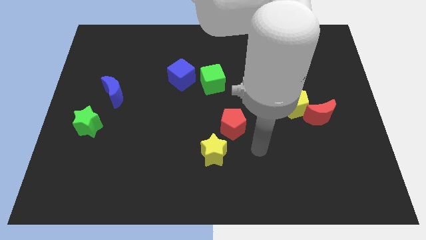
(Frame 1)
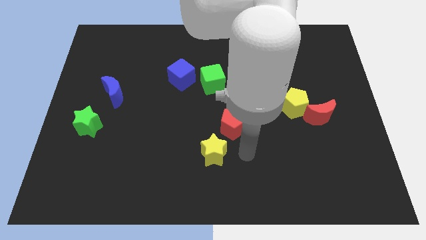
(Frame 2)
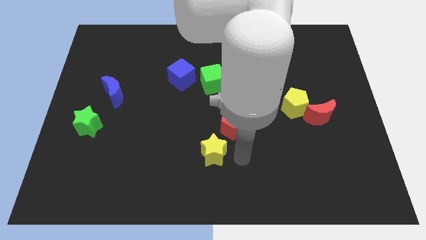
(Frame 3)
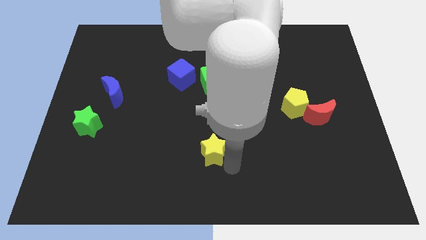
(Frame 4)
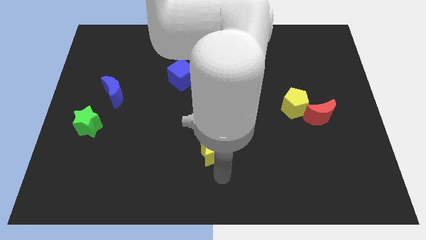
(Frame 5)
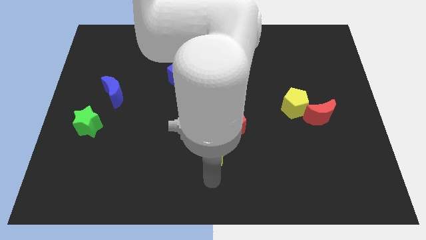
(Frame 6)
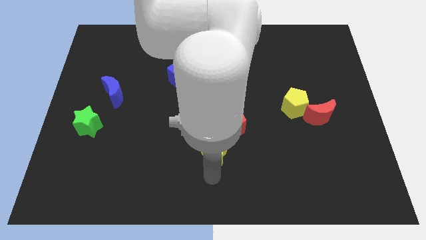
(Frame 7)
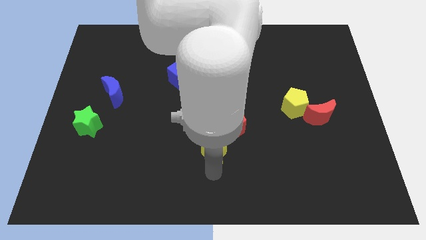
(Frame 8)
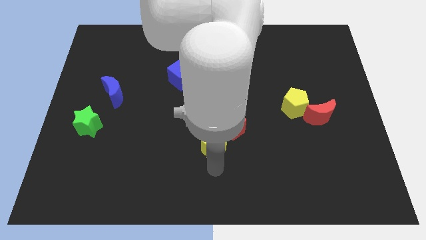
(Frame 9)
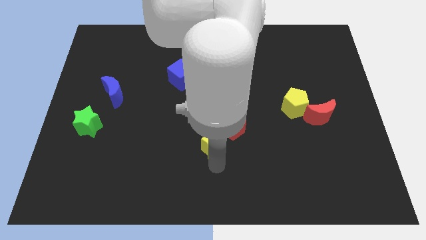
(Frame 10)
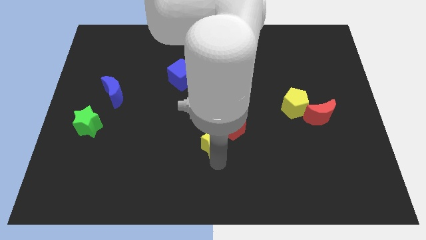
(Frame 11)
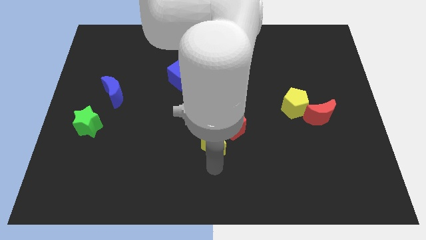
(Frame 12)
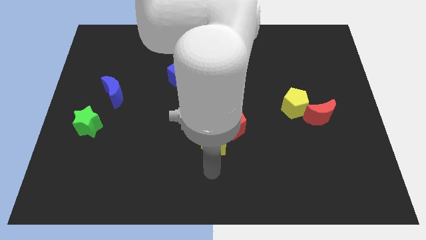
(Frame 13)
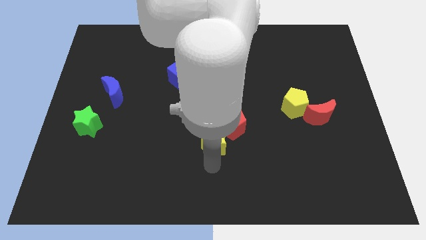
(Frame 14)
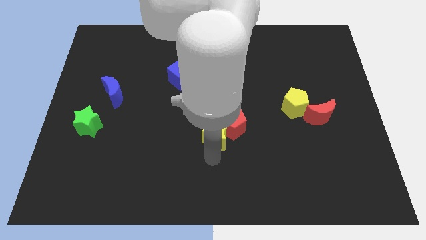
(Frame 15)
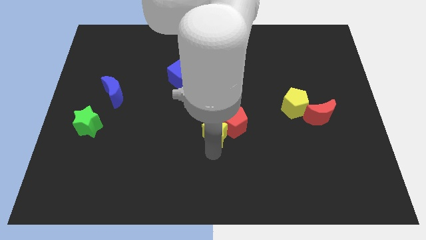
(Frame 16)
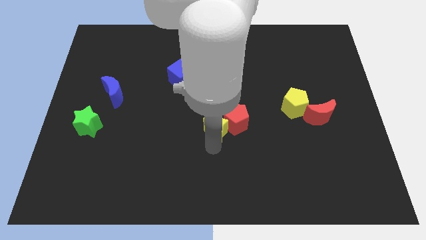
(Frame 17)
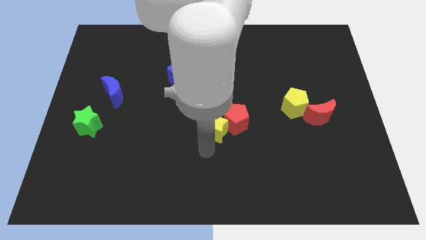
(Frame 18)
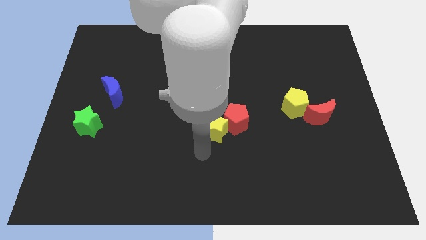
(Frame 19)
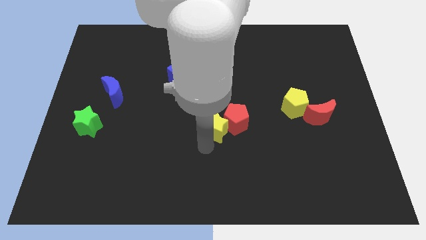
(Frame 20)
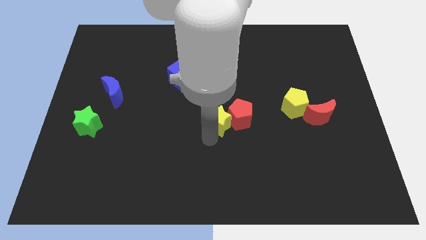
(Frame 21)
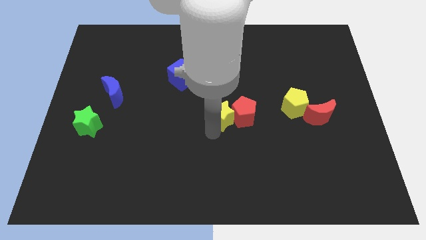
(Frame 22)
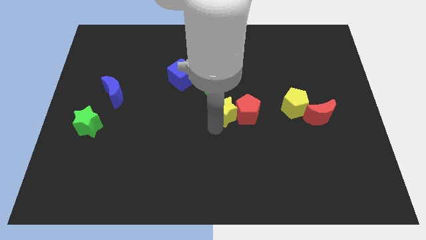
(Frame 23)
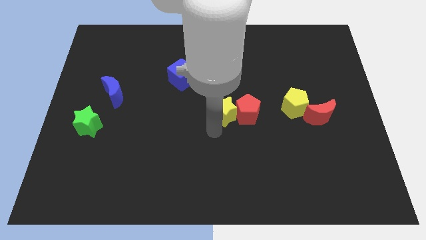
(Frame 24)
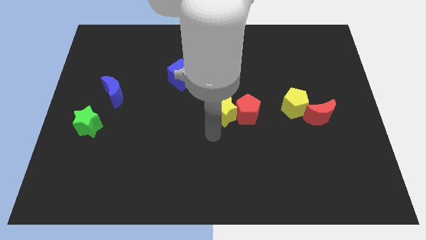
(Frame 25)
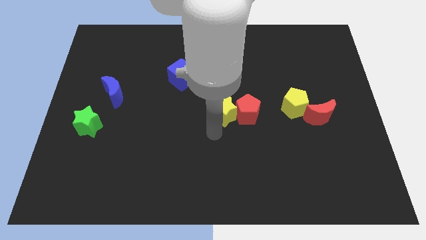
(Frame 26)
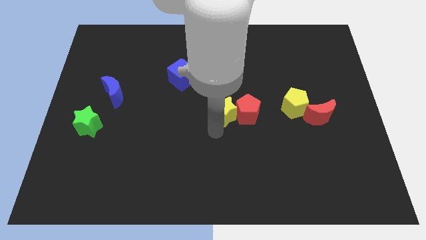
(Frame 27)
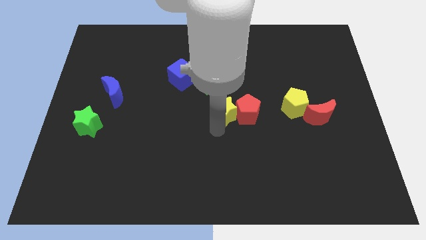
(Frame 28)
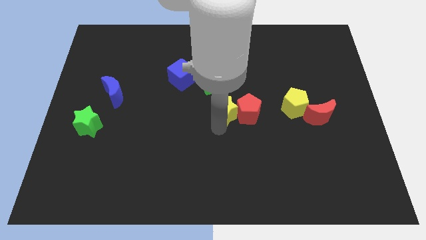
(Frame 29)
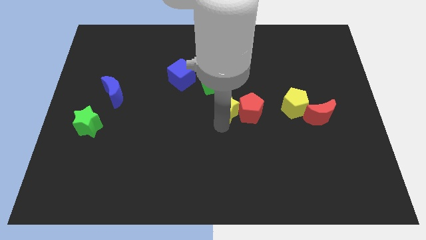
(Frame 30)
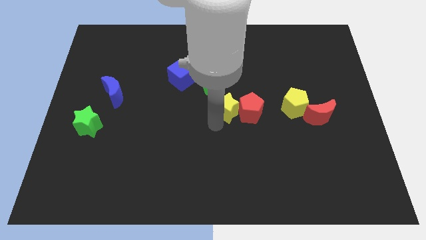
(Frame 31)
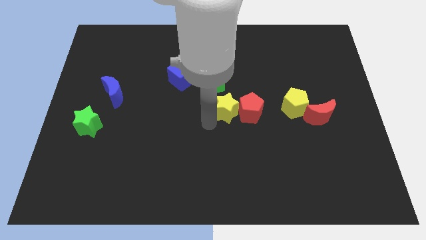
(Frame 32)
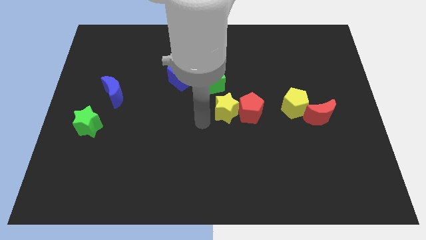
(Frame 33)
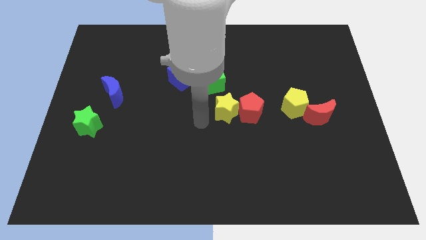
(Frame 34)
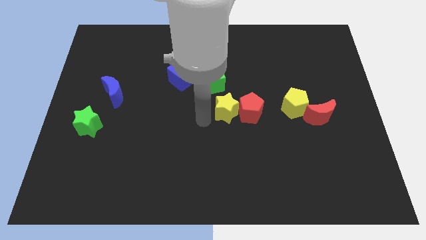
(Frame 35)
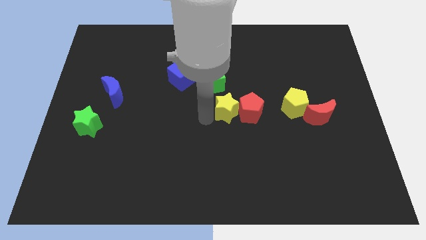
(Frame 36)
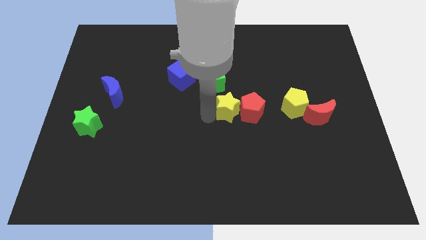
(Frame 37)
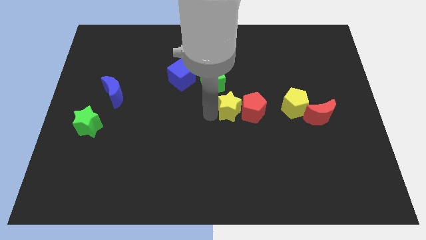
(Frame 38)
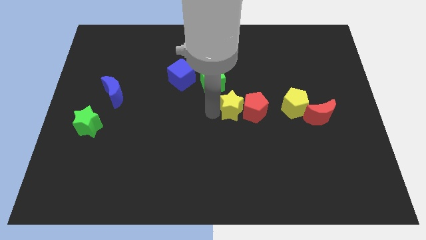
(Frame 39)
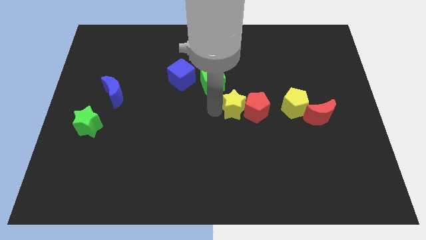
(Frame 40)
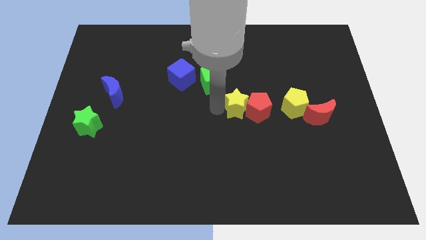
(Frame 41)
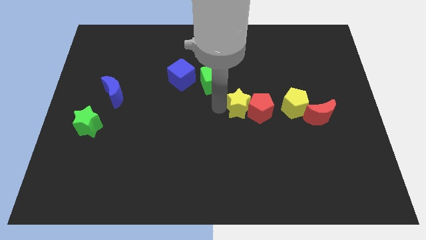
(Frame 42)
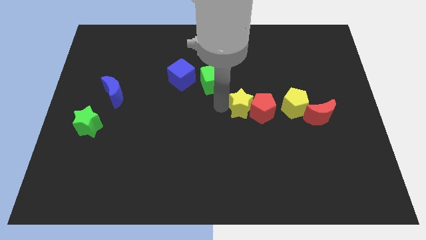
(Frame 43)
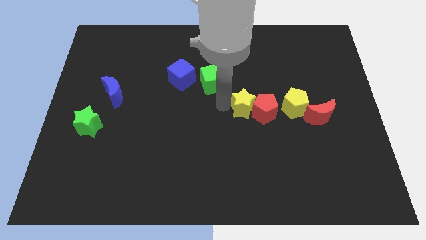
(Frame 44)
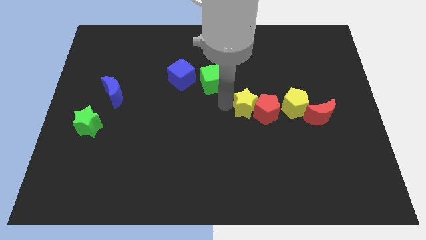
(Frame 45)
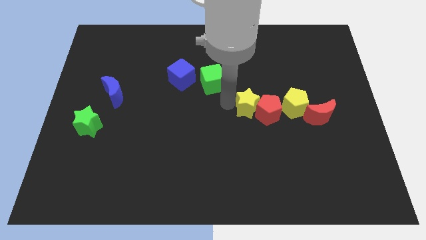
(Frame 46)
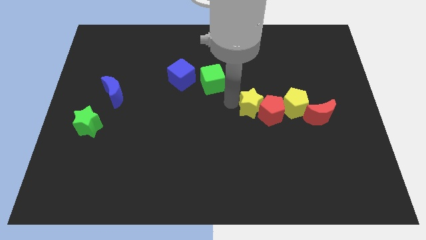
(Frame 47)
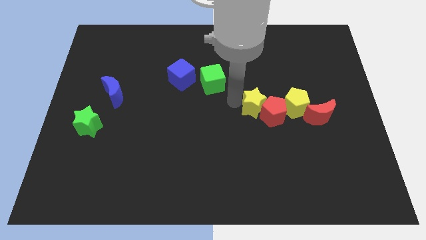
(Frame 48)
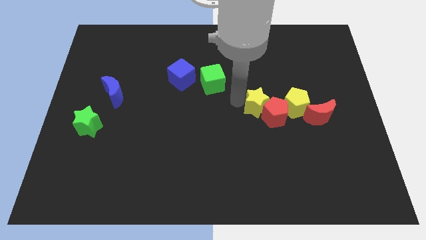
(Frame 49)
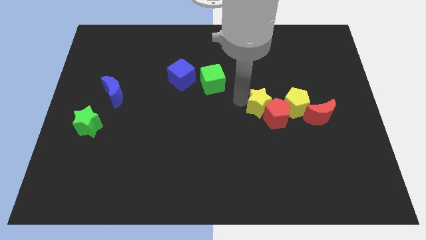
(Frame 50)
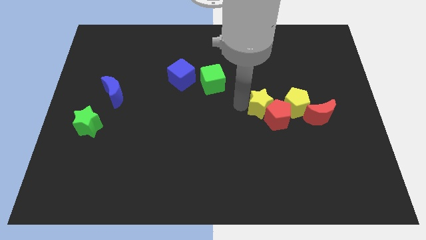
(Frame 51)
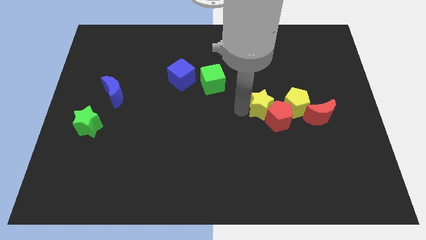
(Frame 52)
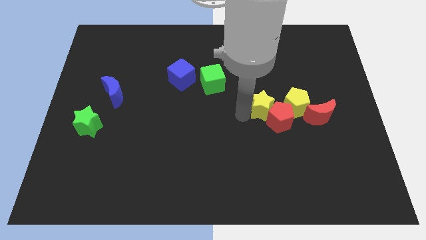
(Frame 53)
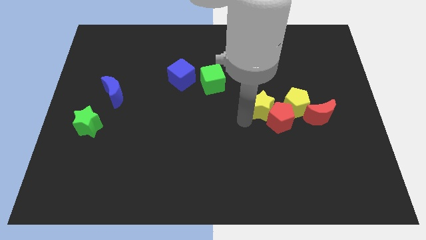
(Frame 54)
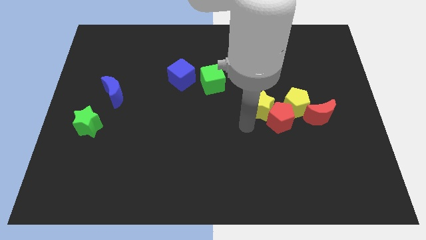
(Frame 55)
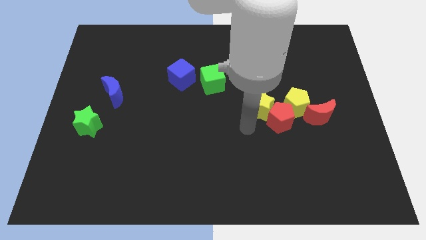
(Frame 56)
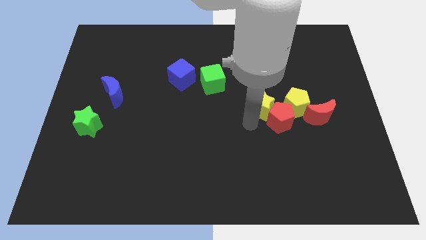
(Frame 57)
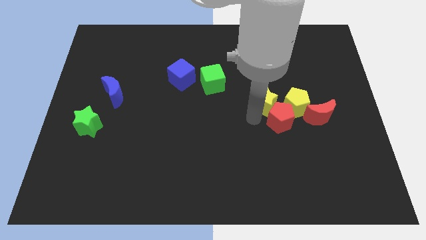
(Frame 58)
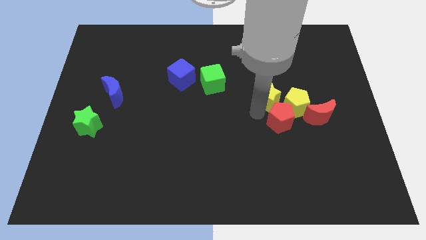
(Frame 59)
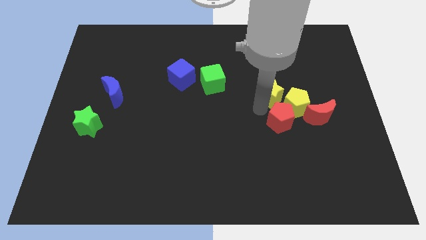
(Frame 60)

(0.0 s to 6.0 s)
push the yellow star upwards and then right

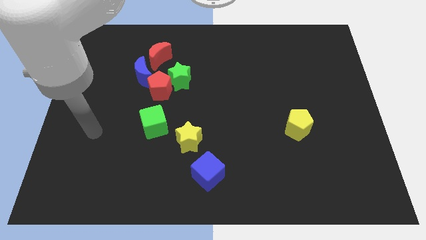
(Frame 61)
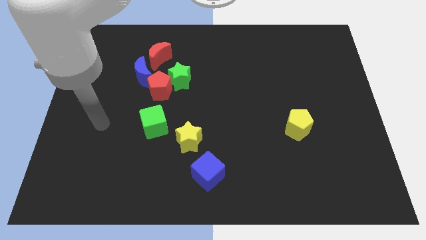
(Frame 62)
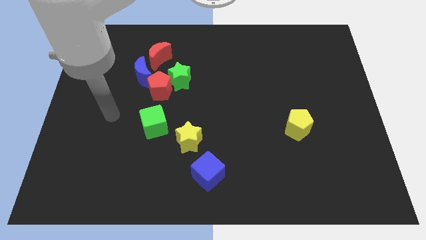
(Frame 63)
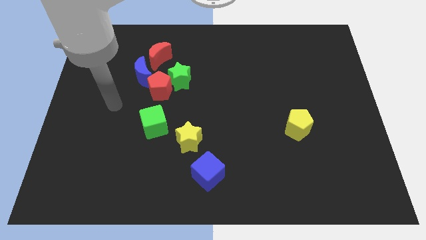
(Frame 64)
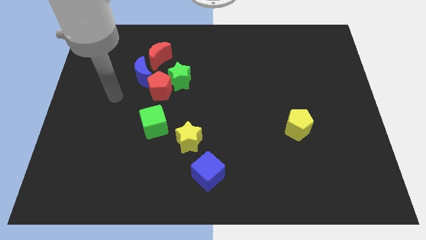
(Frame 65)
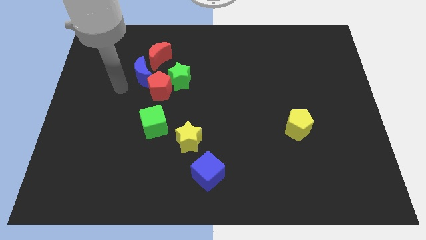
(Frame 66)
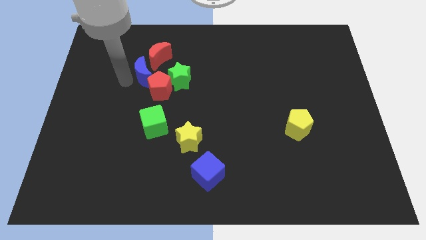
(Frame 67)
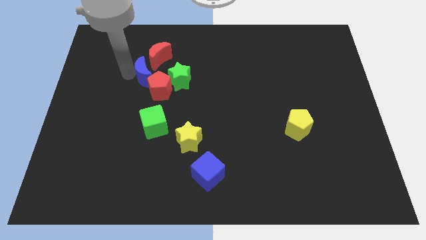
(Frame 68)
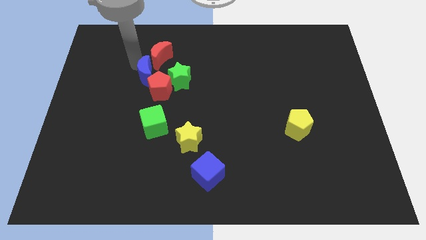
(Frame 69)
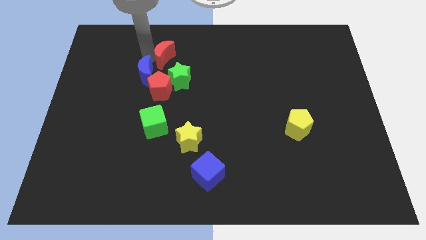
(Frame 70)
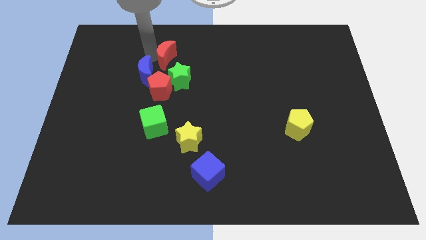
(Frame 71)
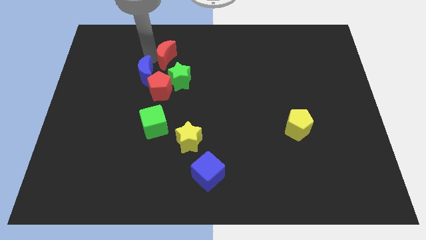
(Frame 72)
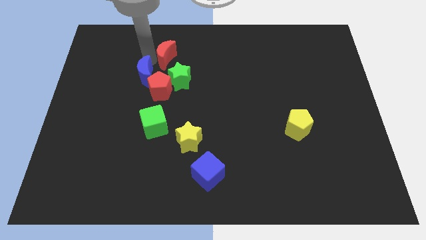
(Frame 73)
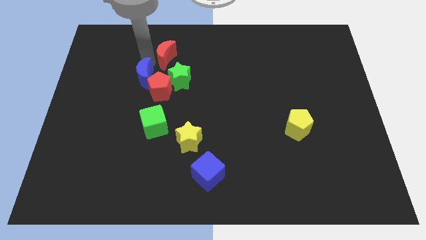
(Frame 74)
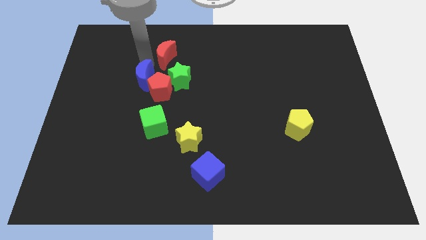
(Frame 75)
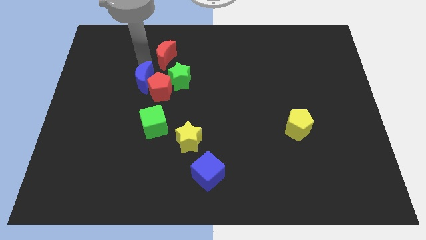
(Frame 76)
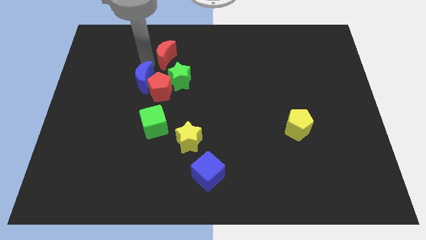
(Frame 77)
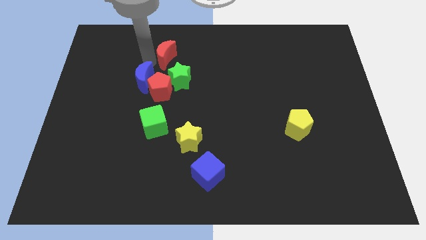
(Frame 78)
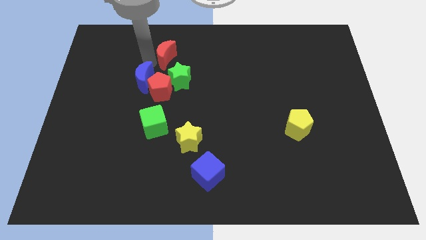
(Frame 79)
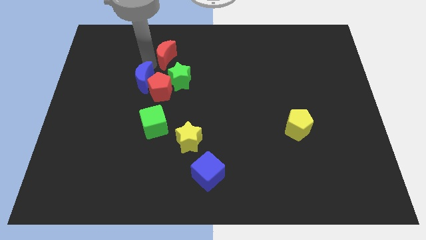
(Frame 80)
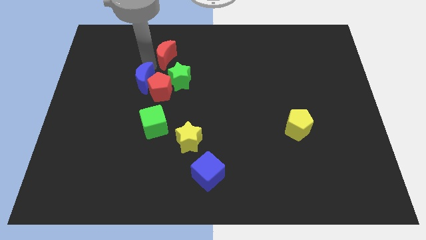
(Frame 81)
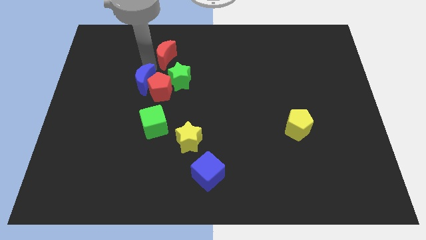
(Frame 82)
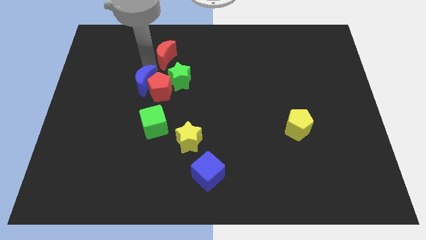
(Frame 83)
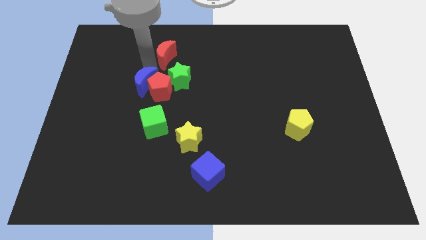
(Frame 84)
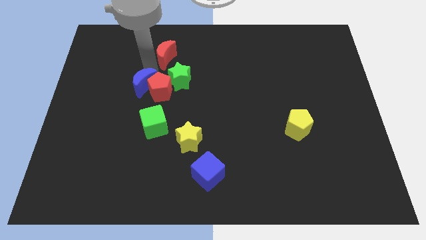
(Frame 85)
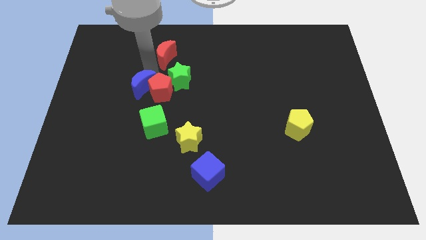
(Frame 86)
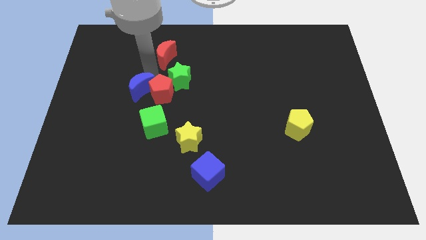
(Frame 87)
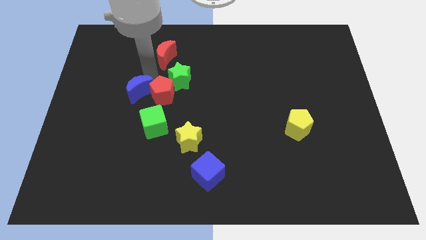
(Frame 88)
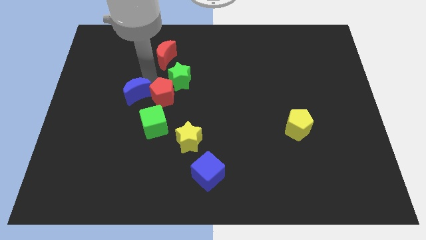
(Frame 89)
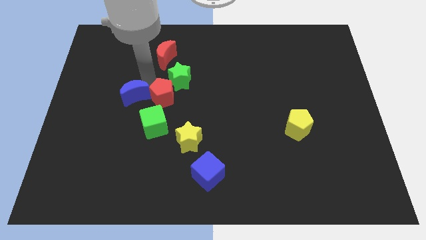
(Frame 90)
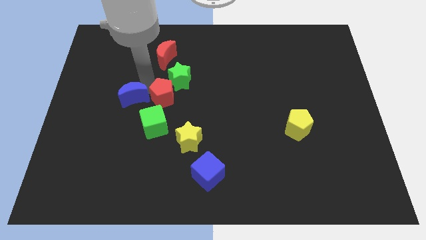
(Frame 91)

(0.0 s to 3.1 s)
slightly move the blue moon downwards
